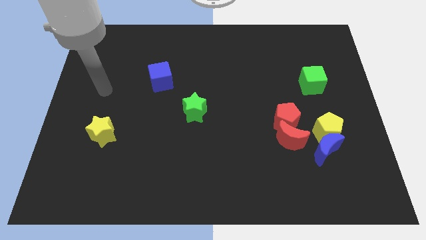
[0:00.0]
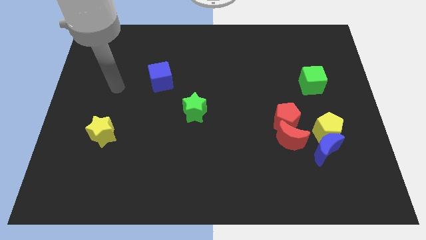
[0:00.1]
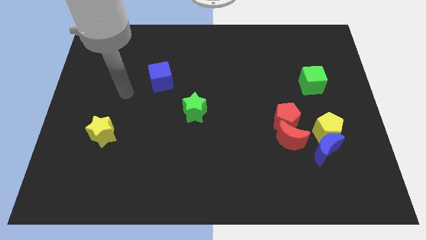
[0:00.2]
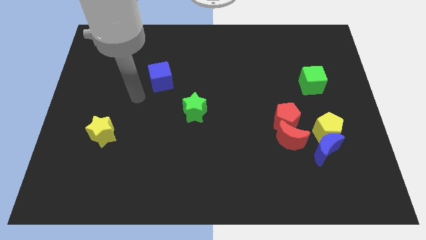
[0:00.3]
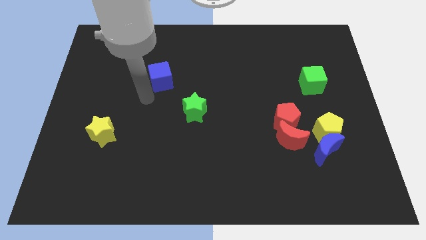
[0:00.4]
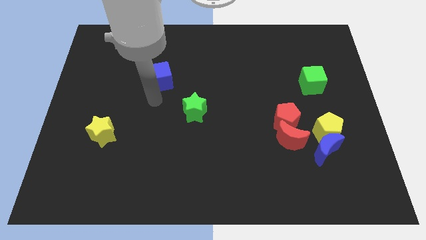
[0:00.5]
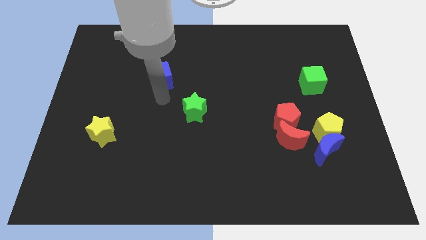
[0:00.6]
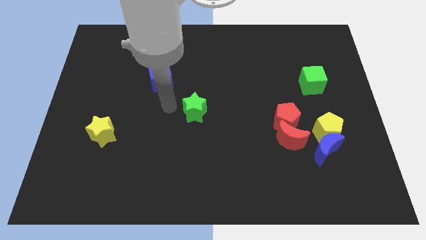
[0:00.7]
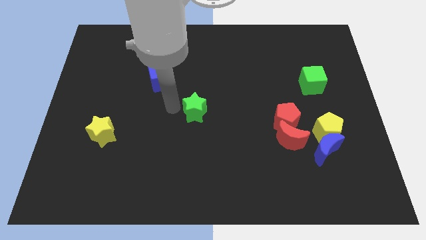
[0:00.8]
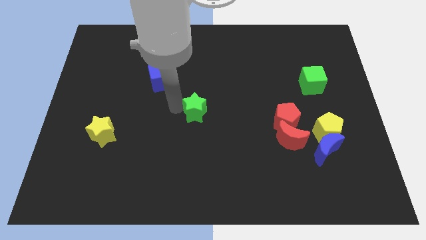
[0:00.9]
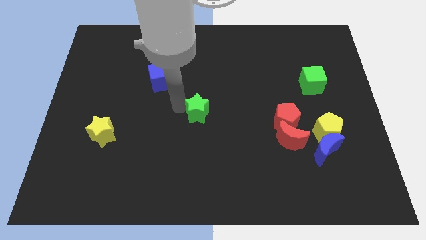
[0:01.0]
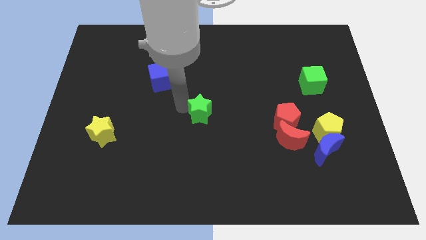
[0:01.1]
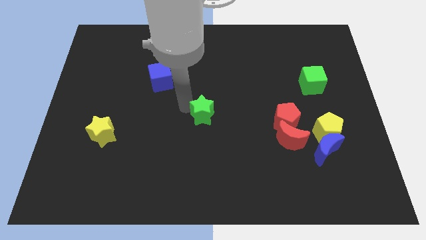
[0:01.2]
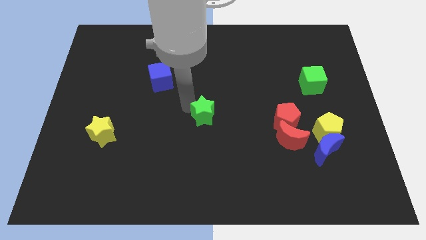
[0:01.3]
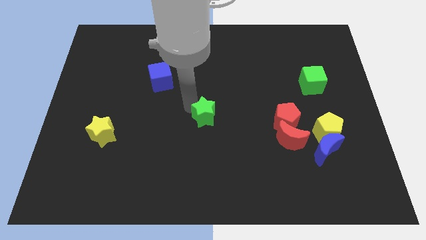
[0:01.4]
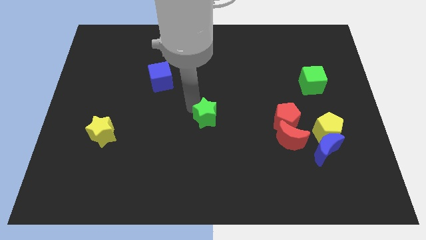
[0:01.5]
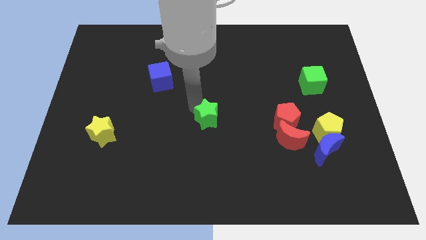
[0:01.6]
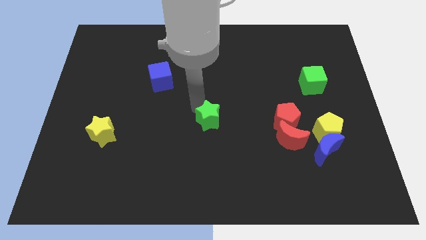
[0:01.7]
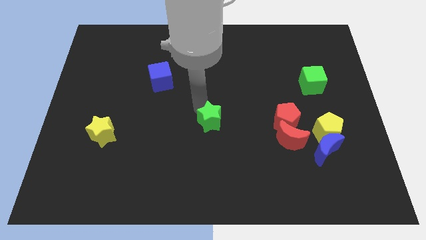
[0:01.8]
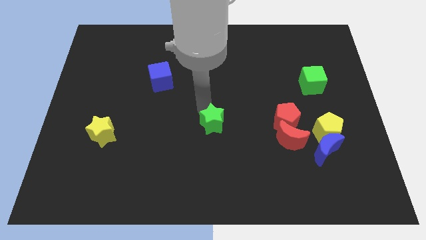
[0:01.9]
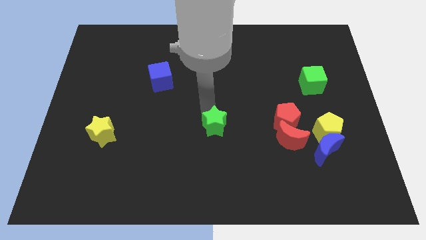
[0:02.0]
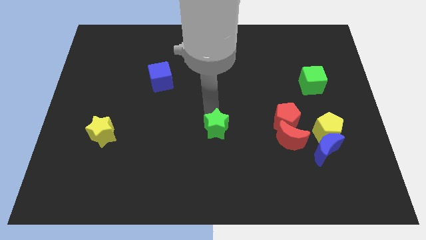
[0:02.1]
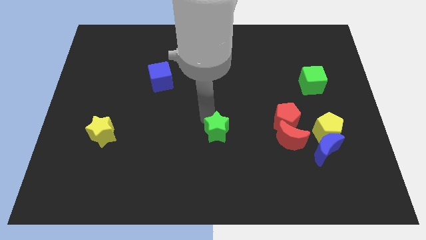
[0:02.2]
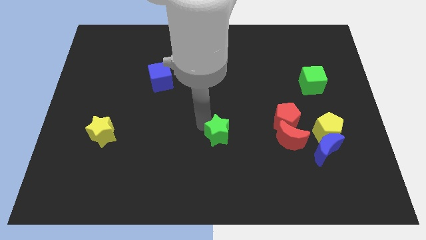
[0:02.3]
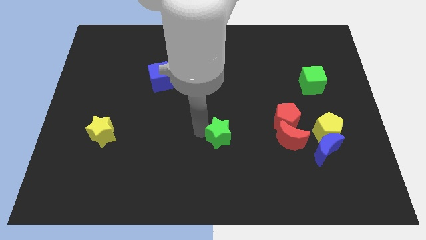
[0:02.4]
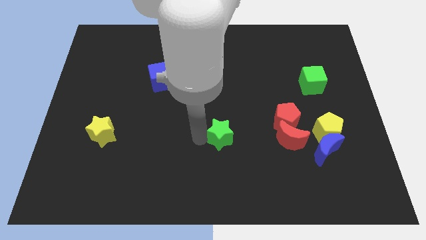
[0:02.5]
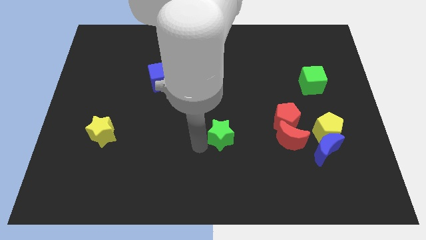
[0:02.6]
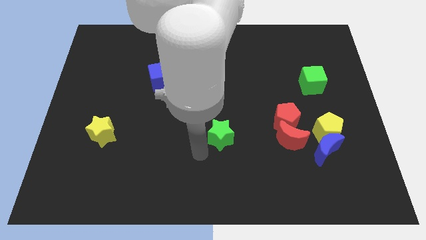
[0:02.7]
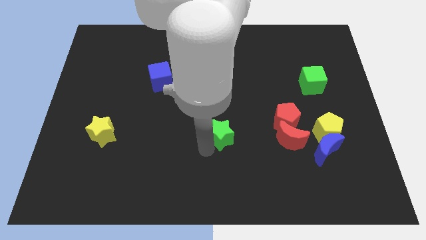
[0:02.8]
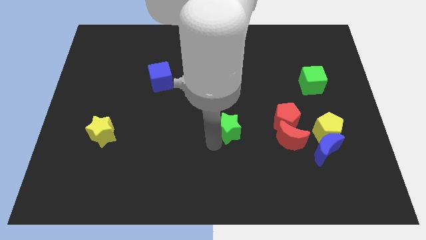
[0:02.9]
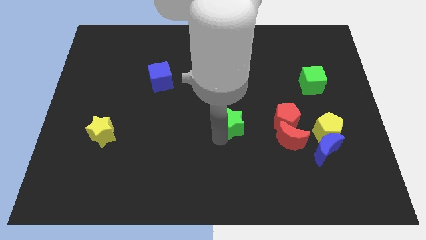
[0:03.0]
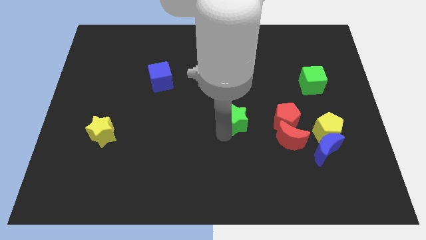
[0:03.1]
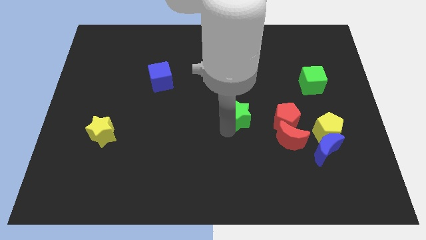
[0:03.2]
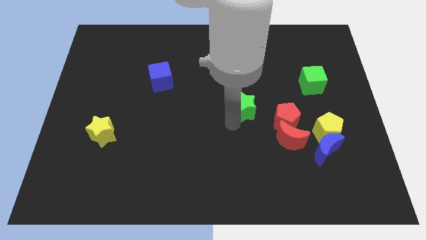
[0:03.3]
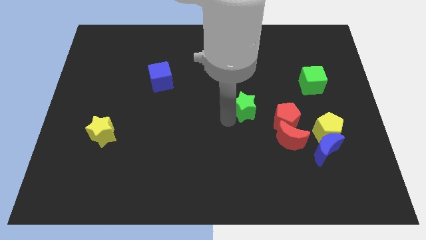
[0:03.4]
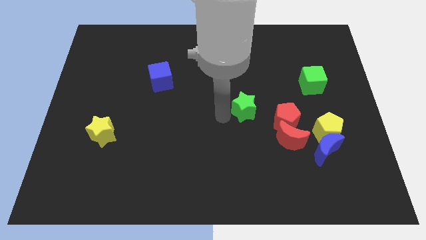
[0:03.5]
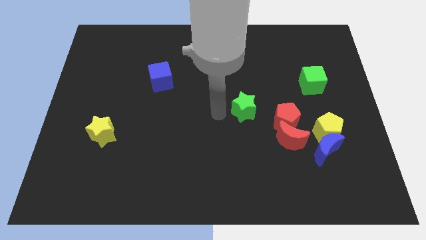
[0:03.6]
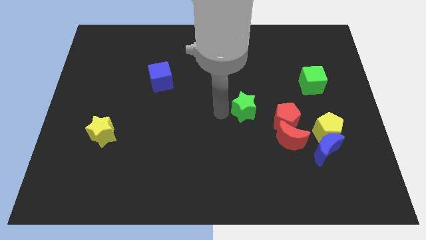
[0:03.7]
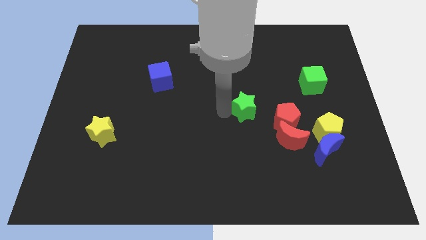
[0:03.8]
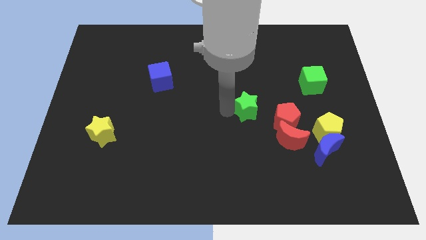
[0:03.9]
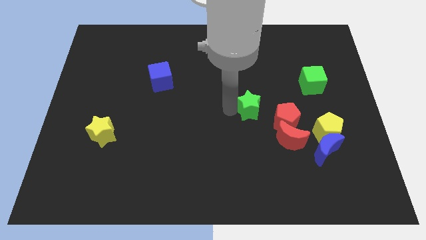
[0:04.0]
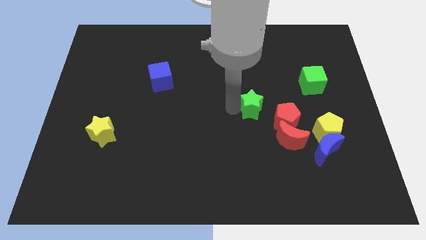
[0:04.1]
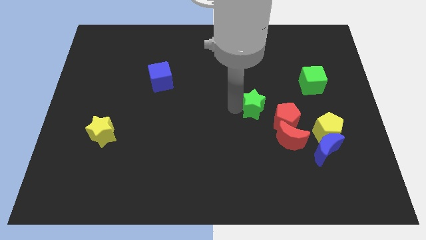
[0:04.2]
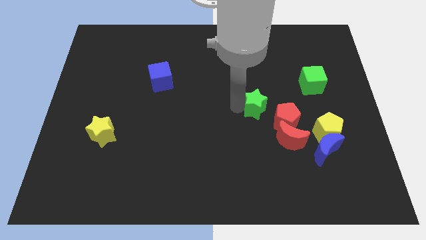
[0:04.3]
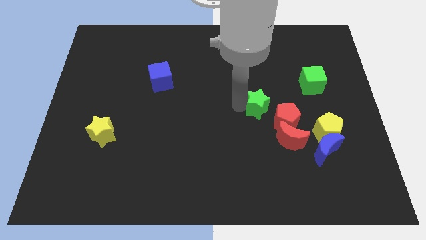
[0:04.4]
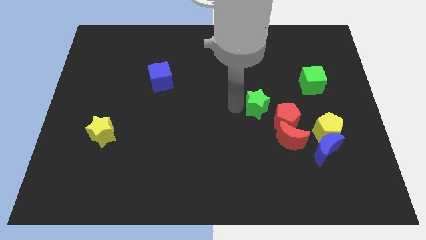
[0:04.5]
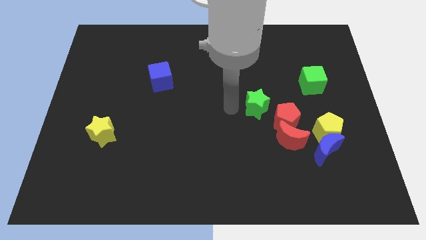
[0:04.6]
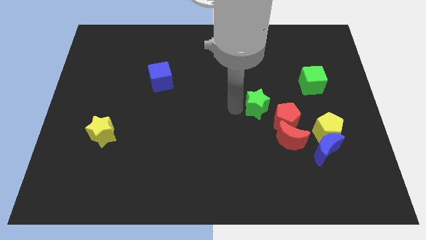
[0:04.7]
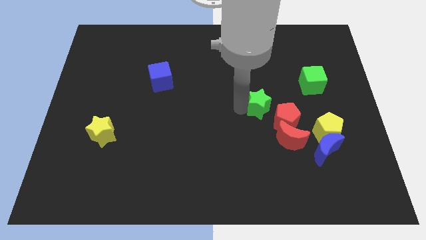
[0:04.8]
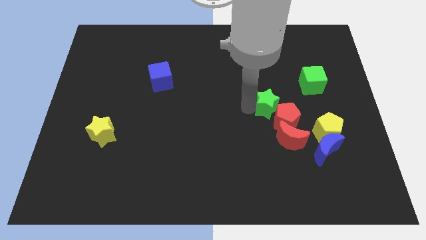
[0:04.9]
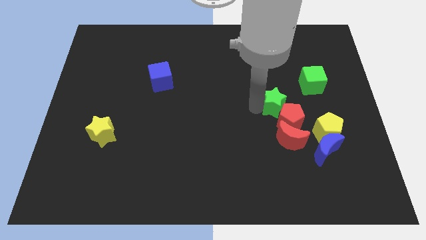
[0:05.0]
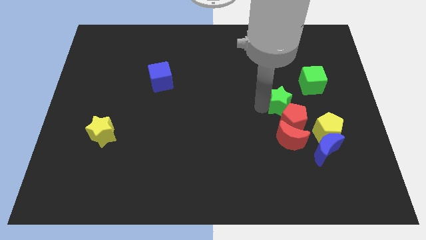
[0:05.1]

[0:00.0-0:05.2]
push the green star right

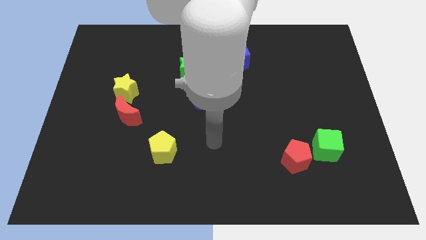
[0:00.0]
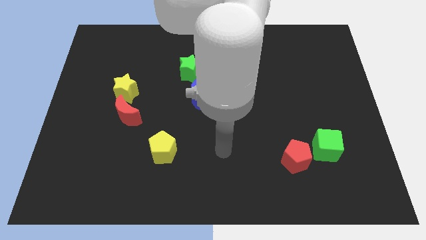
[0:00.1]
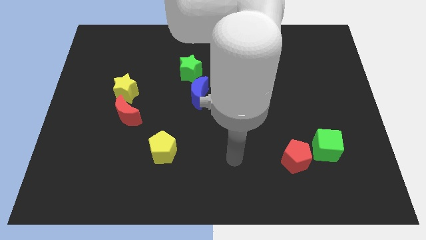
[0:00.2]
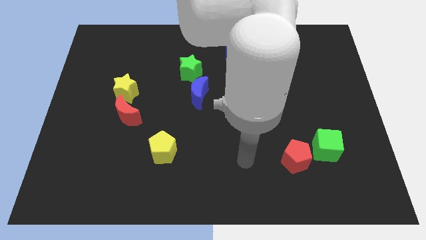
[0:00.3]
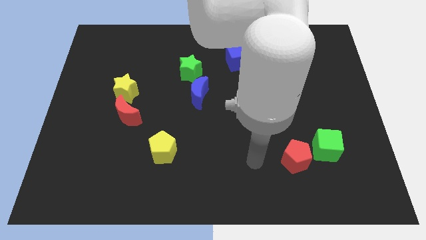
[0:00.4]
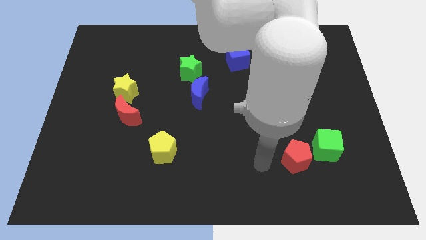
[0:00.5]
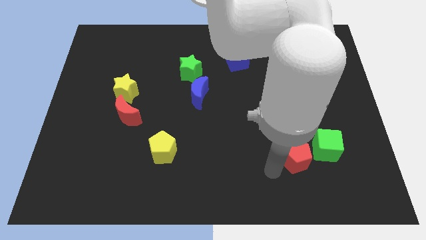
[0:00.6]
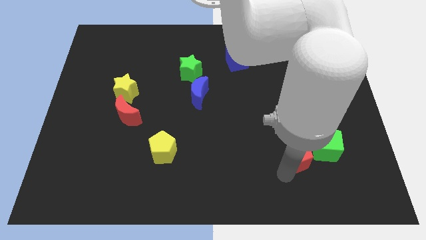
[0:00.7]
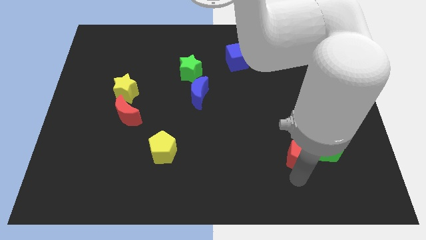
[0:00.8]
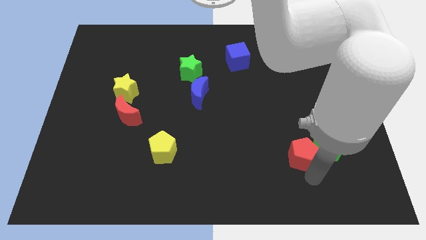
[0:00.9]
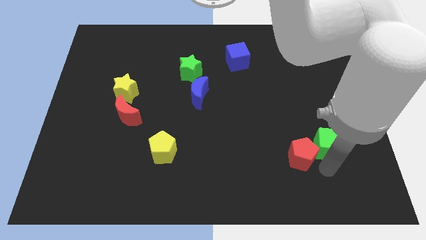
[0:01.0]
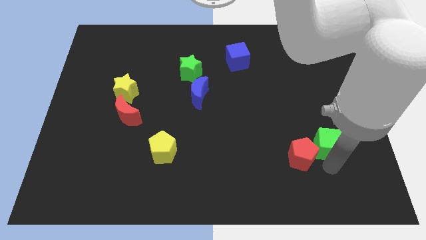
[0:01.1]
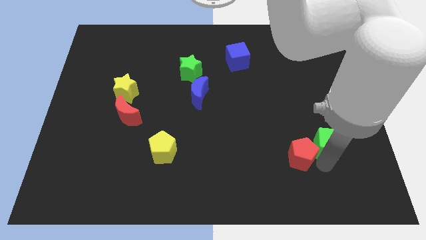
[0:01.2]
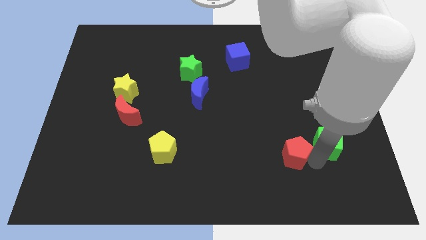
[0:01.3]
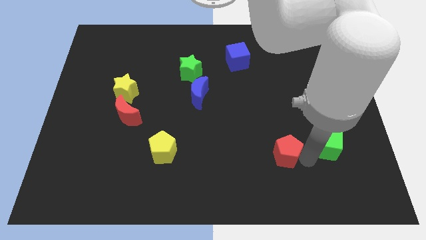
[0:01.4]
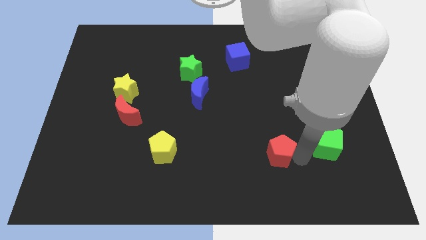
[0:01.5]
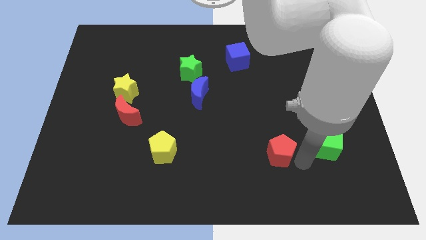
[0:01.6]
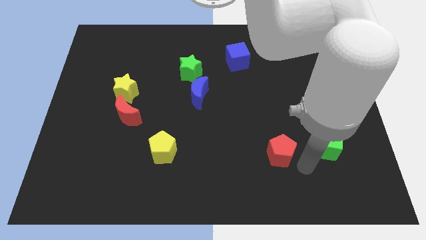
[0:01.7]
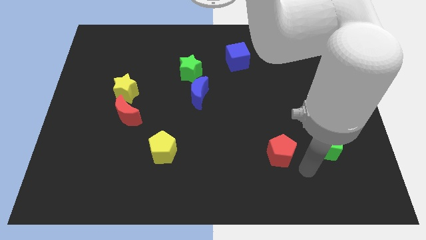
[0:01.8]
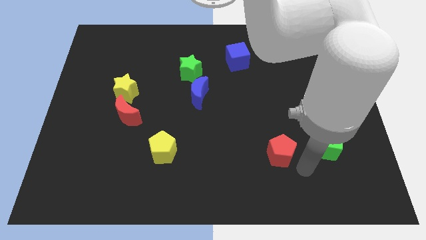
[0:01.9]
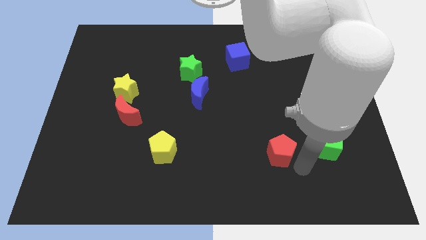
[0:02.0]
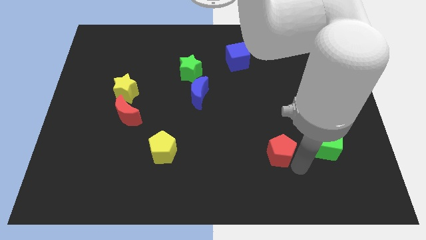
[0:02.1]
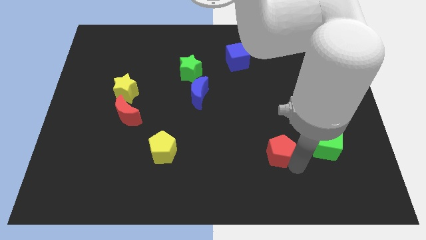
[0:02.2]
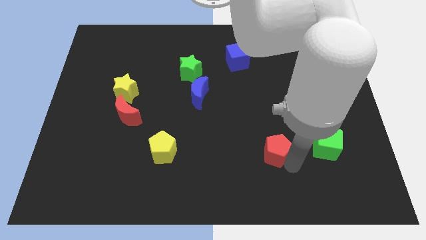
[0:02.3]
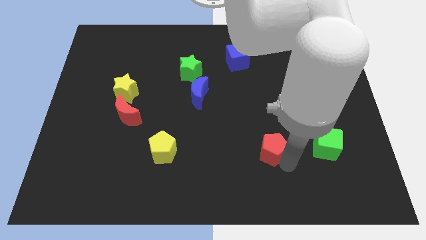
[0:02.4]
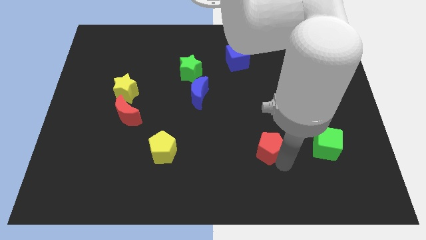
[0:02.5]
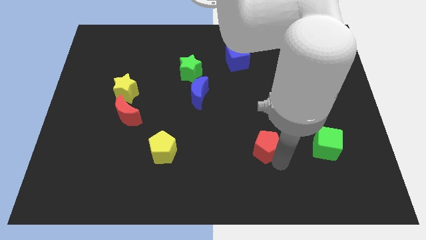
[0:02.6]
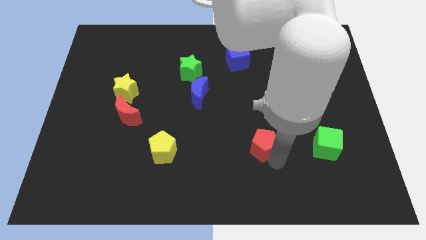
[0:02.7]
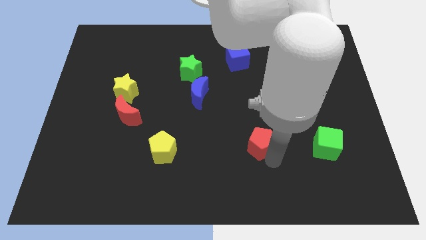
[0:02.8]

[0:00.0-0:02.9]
slightly slide the red pentagon upwards and left
